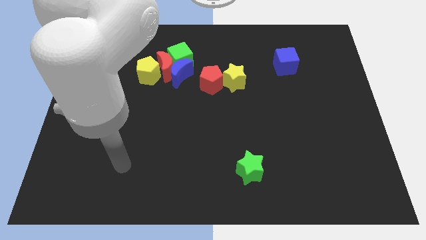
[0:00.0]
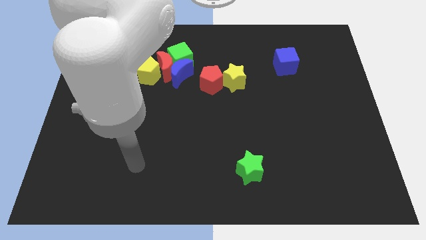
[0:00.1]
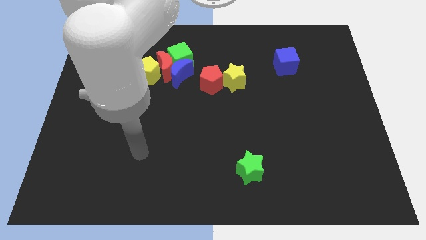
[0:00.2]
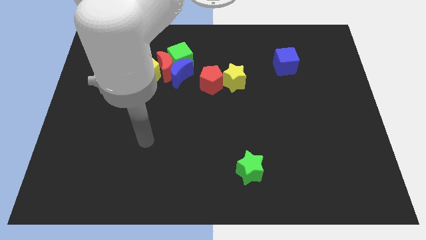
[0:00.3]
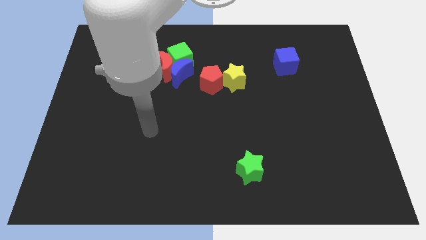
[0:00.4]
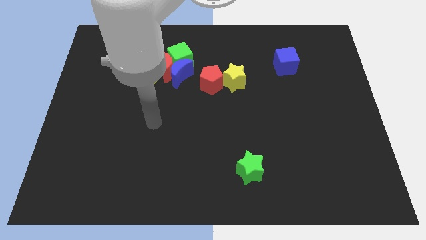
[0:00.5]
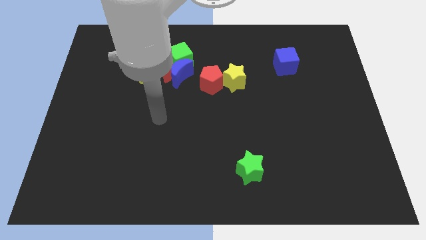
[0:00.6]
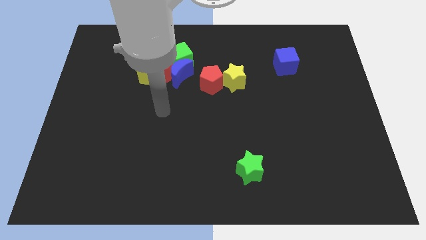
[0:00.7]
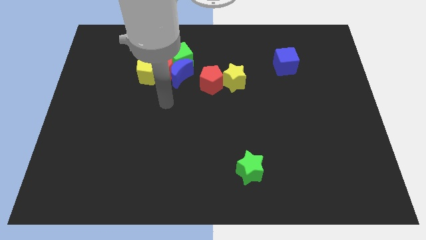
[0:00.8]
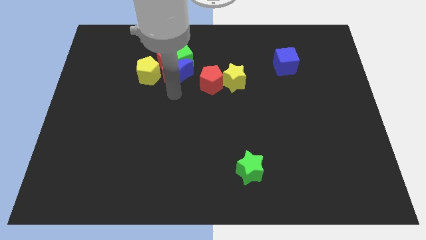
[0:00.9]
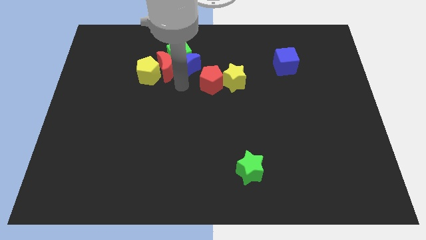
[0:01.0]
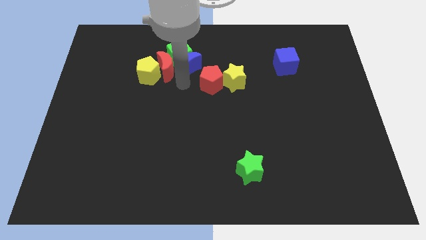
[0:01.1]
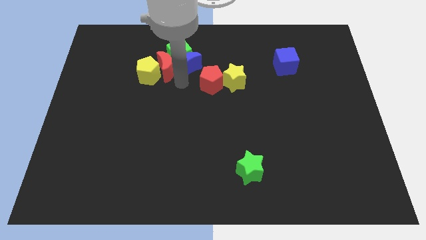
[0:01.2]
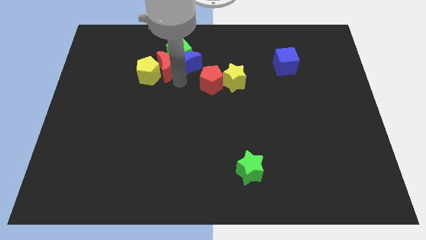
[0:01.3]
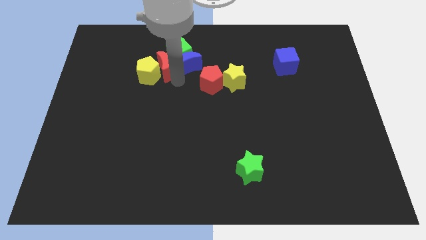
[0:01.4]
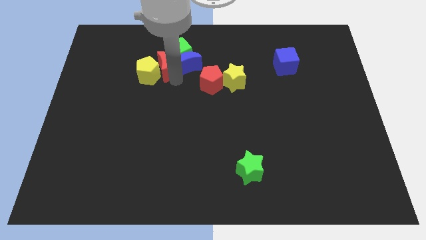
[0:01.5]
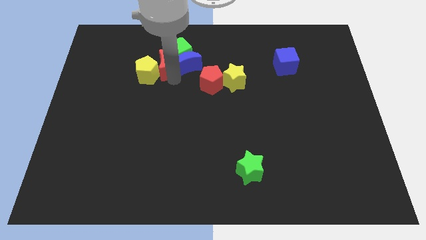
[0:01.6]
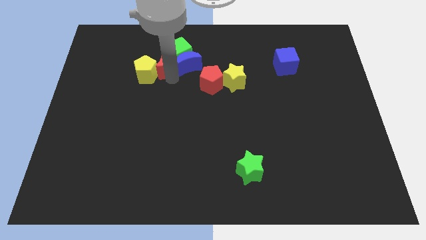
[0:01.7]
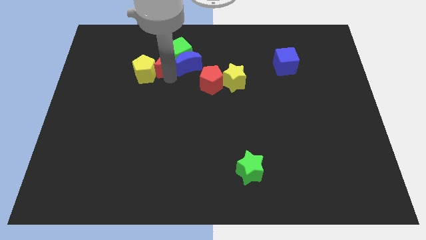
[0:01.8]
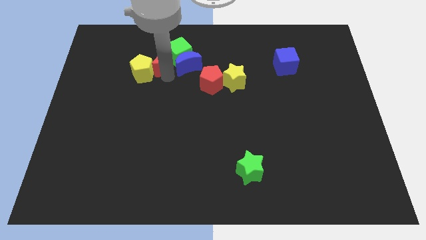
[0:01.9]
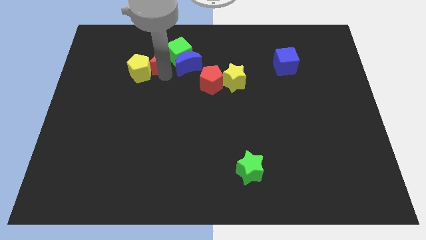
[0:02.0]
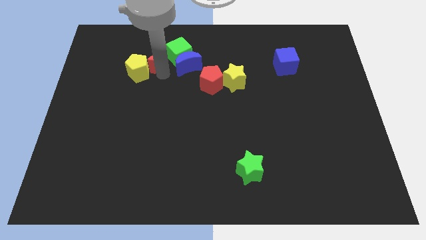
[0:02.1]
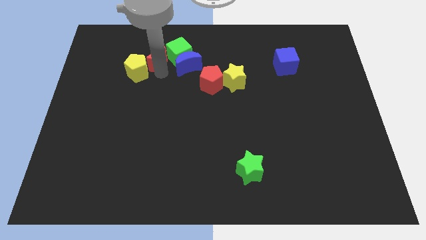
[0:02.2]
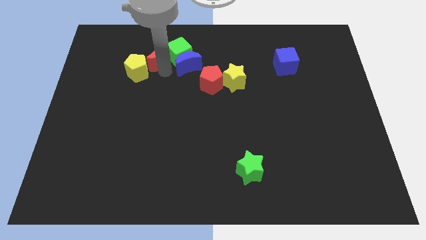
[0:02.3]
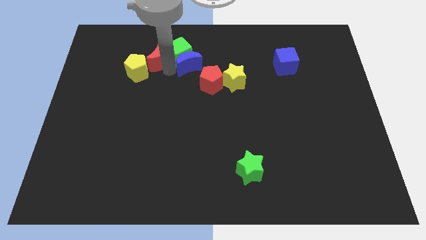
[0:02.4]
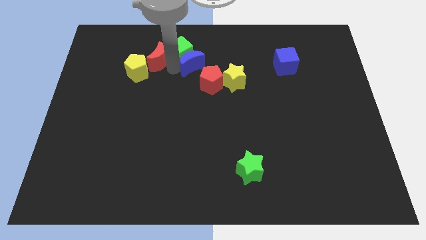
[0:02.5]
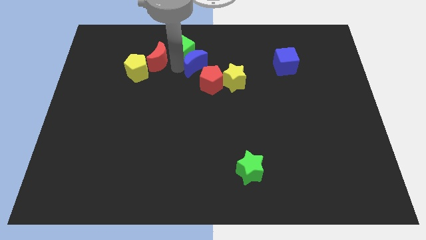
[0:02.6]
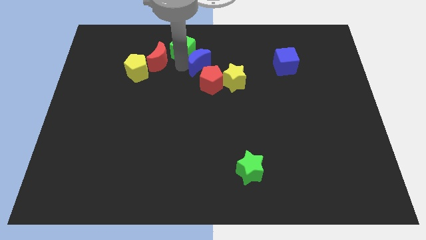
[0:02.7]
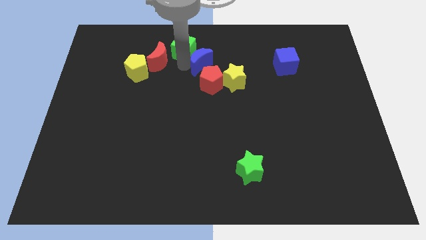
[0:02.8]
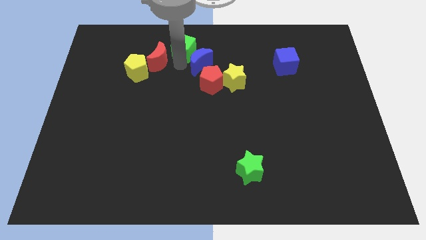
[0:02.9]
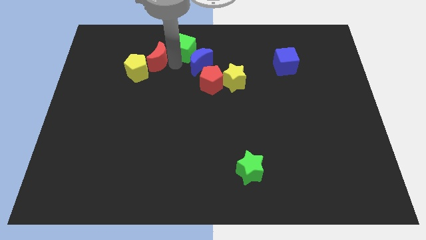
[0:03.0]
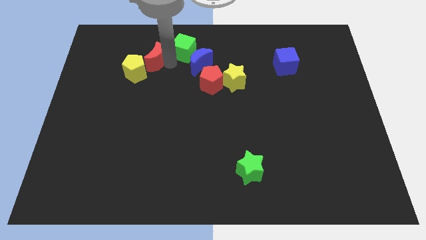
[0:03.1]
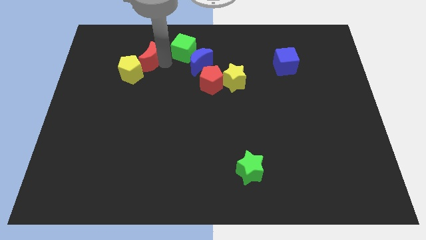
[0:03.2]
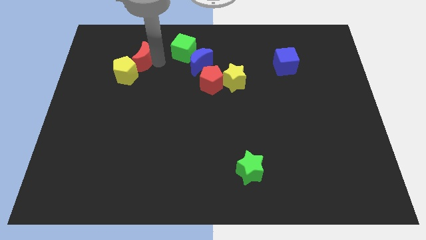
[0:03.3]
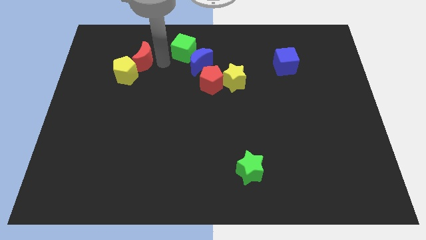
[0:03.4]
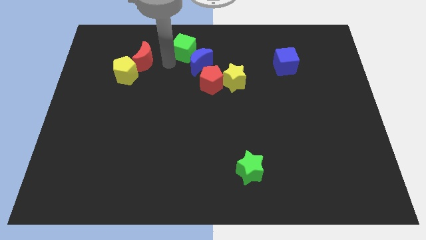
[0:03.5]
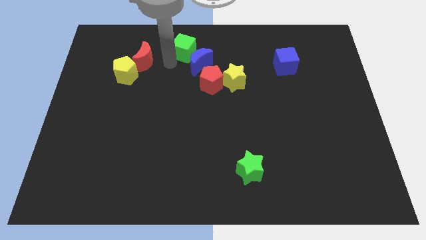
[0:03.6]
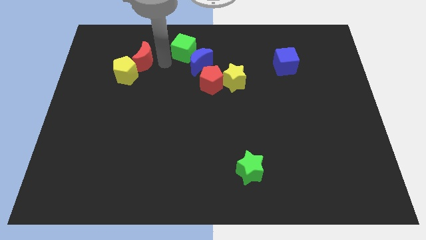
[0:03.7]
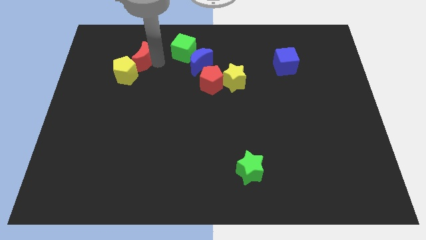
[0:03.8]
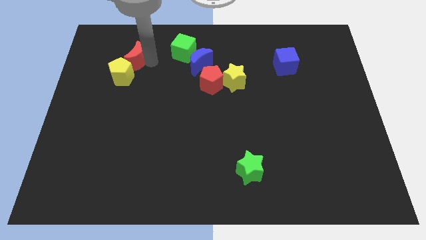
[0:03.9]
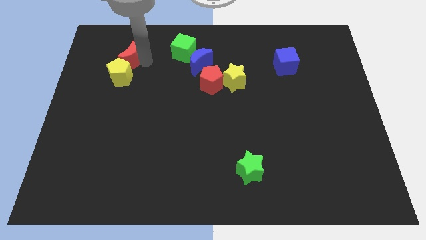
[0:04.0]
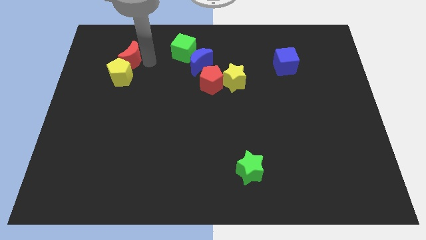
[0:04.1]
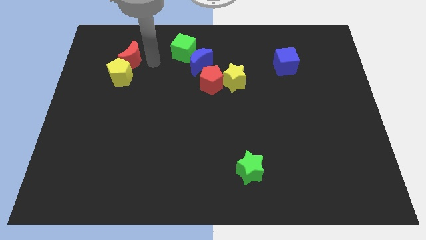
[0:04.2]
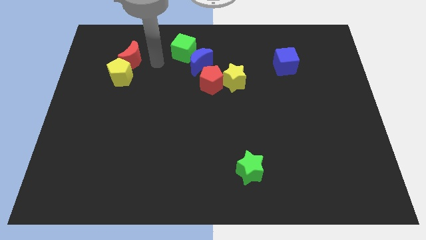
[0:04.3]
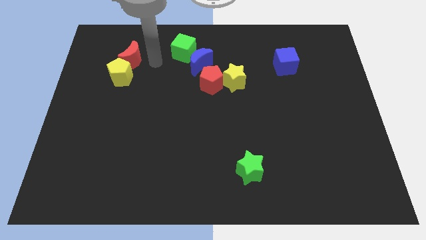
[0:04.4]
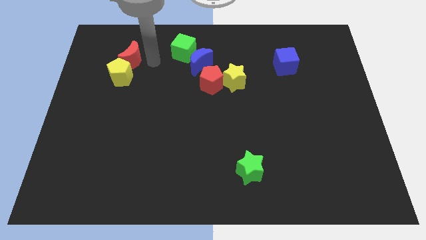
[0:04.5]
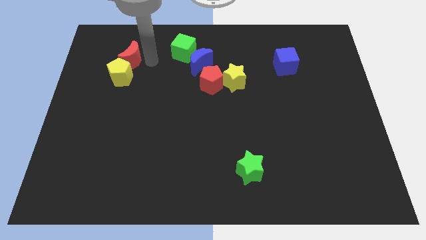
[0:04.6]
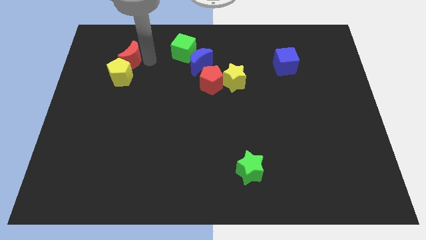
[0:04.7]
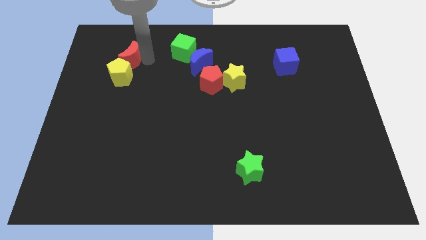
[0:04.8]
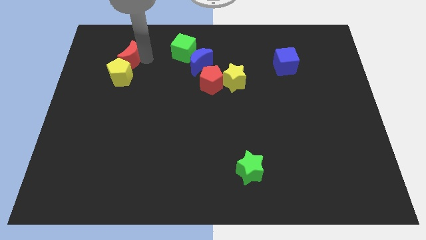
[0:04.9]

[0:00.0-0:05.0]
separate the red moon from the group

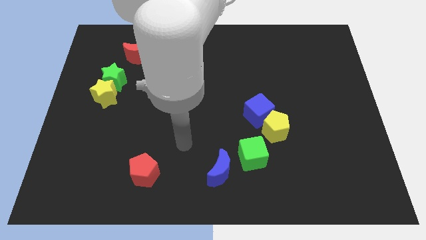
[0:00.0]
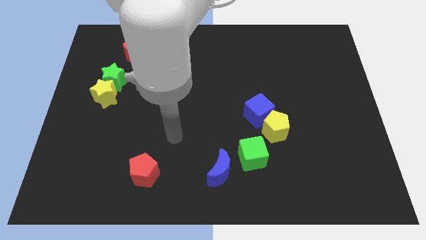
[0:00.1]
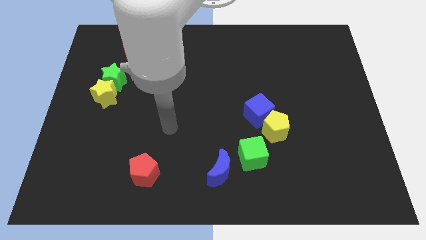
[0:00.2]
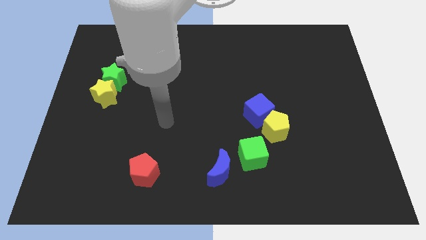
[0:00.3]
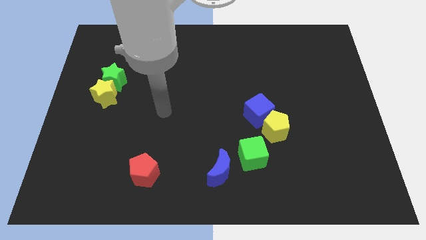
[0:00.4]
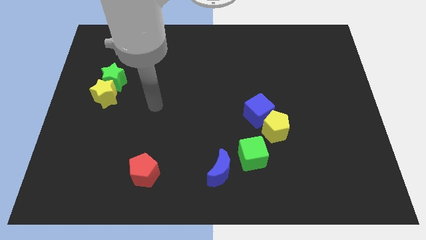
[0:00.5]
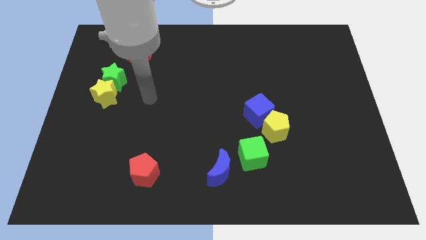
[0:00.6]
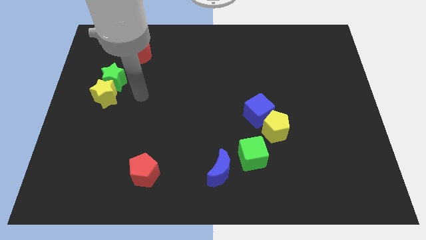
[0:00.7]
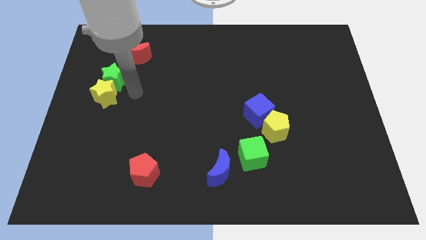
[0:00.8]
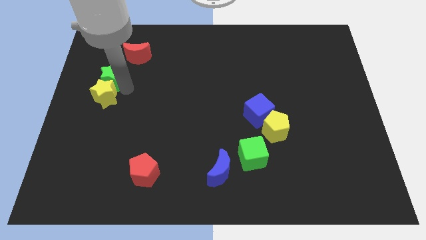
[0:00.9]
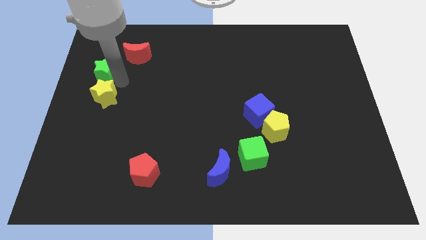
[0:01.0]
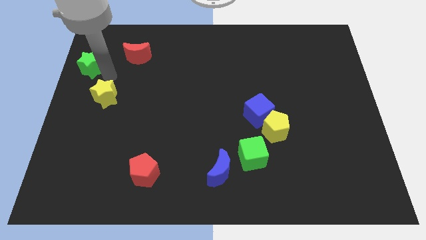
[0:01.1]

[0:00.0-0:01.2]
move the yellow star away from the green star

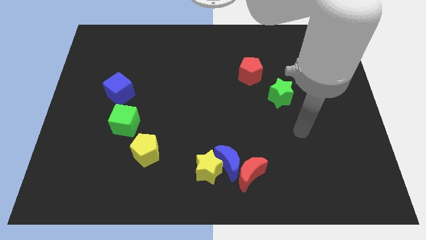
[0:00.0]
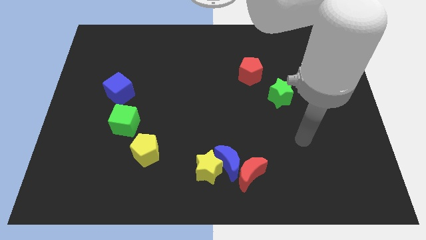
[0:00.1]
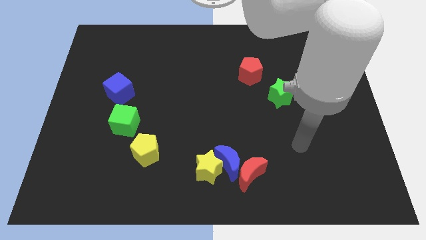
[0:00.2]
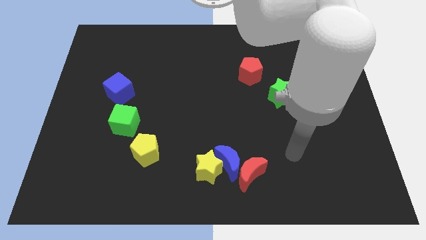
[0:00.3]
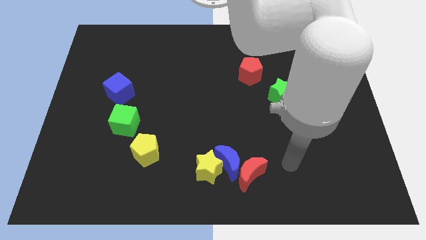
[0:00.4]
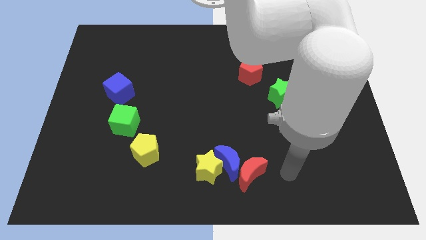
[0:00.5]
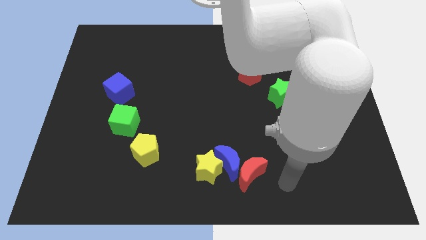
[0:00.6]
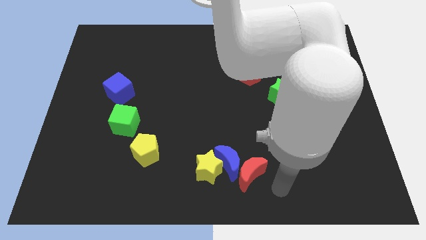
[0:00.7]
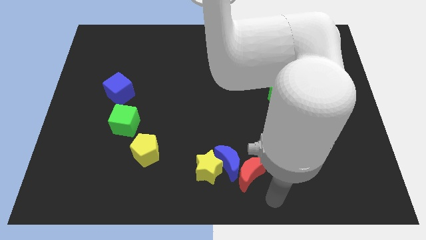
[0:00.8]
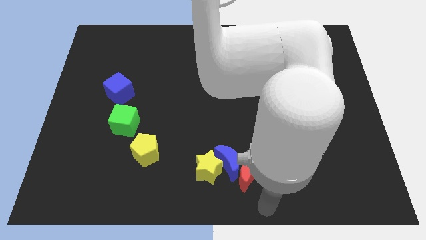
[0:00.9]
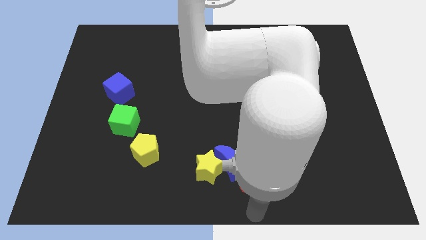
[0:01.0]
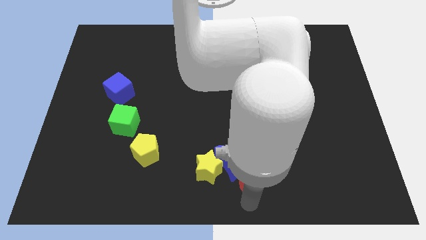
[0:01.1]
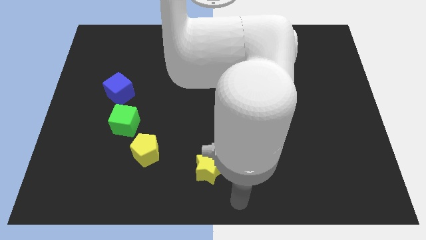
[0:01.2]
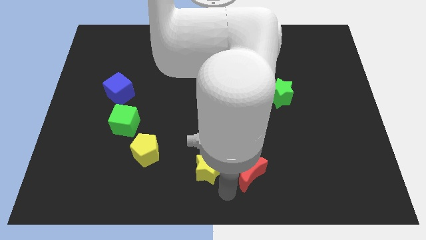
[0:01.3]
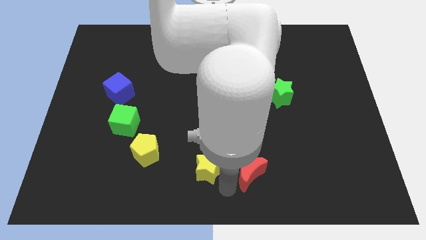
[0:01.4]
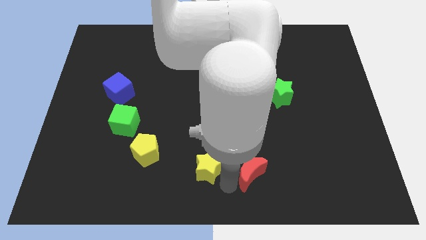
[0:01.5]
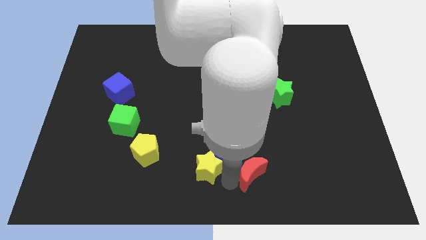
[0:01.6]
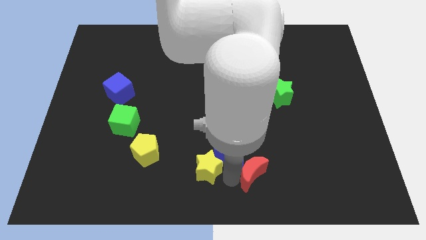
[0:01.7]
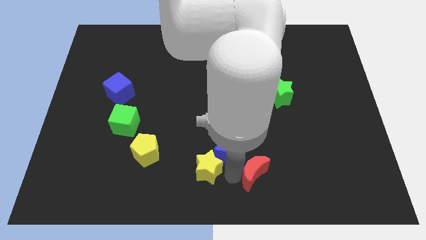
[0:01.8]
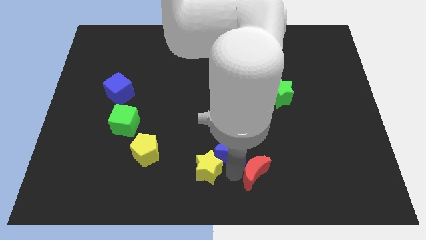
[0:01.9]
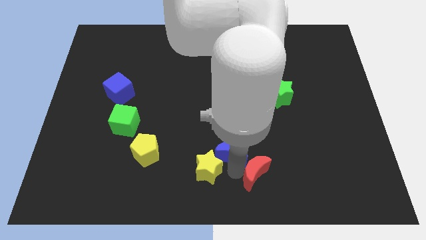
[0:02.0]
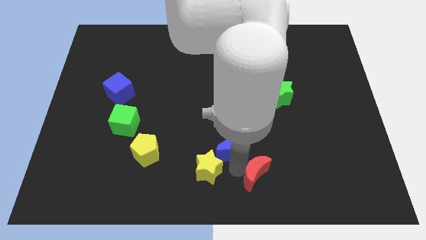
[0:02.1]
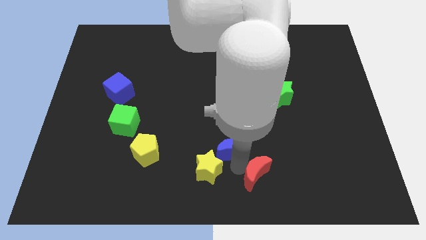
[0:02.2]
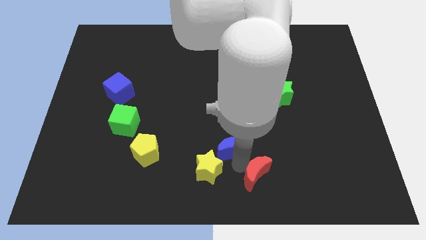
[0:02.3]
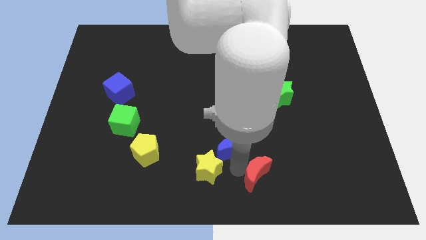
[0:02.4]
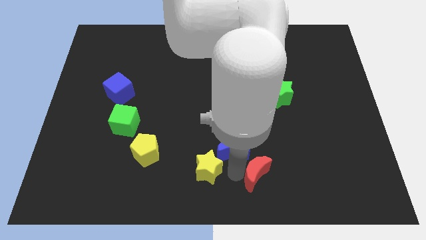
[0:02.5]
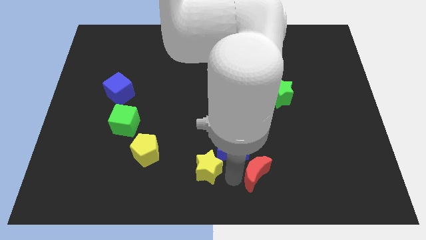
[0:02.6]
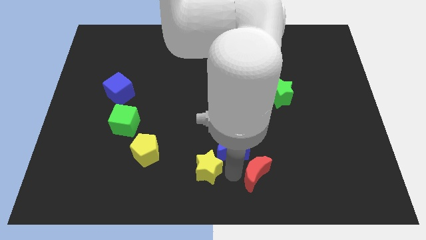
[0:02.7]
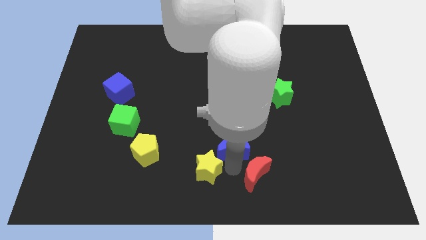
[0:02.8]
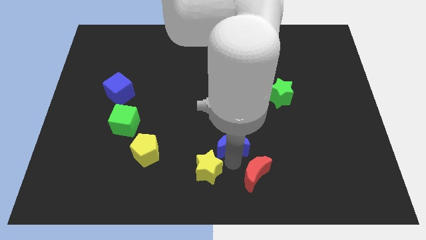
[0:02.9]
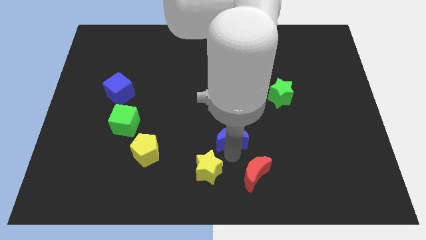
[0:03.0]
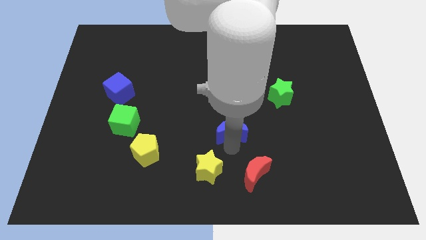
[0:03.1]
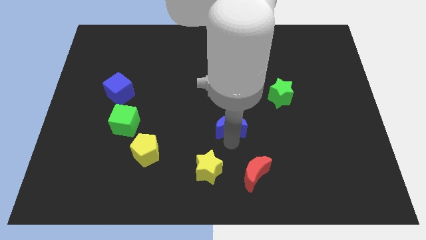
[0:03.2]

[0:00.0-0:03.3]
pull the blue moon apart from the yellow star and red moon
